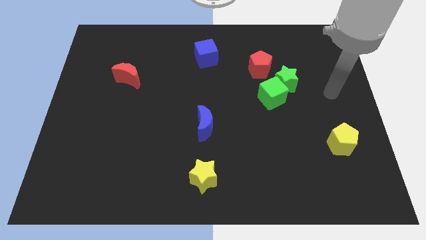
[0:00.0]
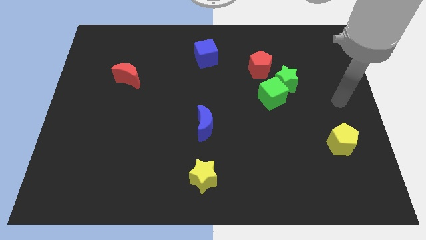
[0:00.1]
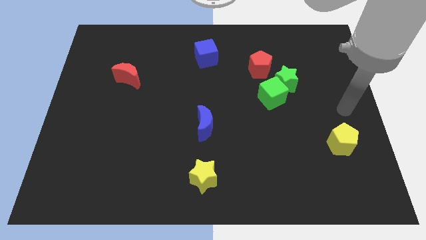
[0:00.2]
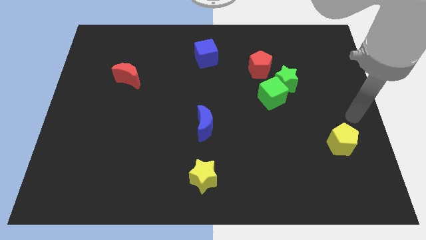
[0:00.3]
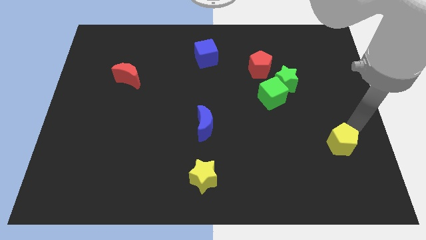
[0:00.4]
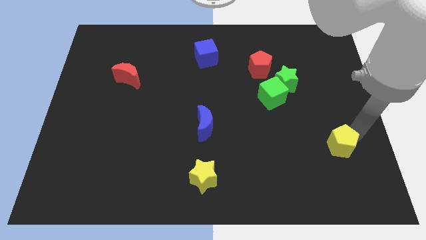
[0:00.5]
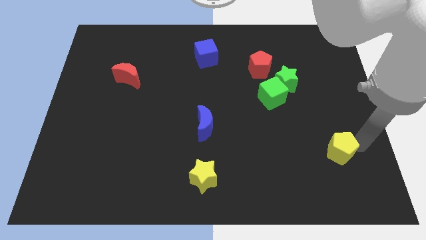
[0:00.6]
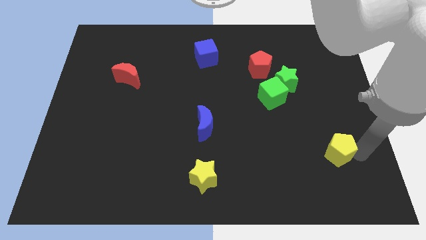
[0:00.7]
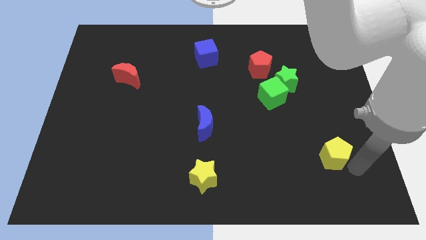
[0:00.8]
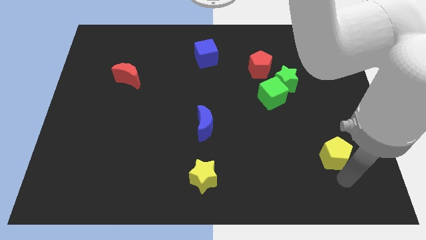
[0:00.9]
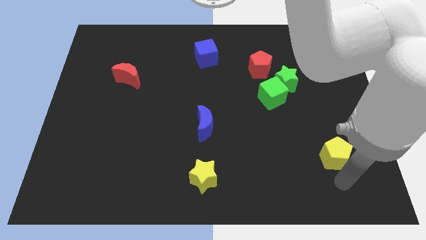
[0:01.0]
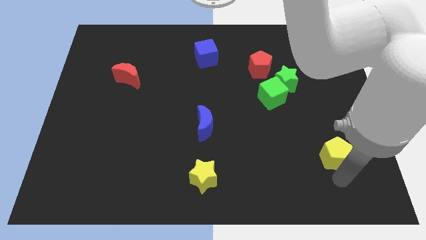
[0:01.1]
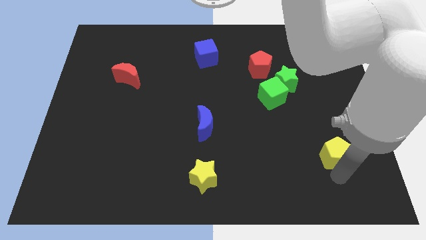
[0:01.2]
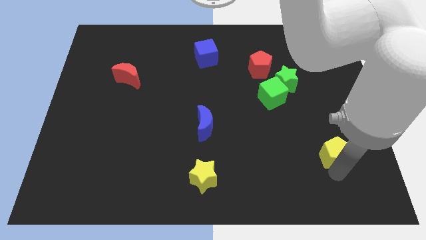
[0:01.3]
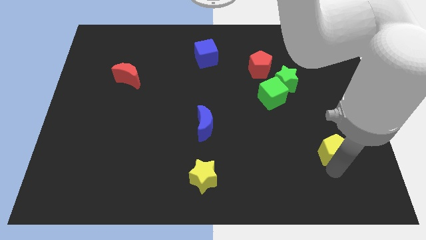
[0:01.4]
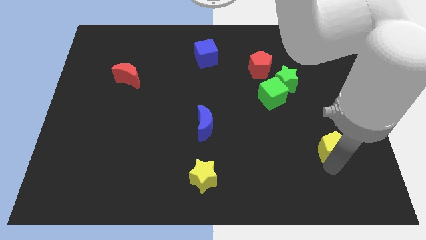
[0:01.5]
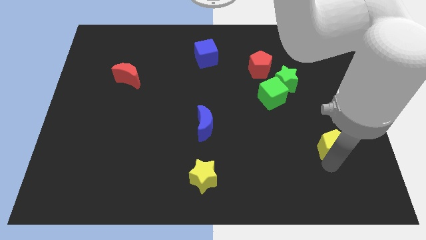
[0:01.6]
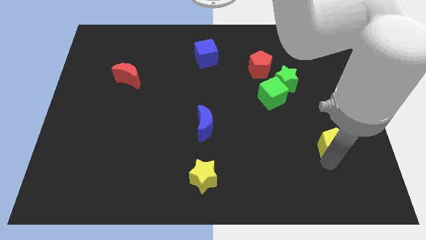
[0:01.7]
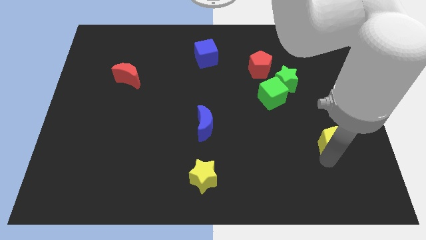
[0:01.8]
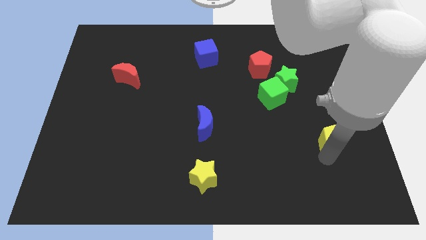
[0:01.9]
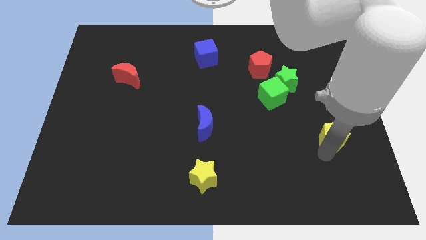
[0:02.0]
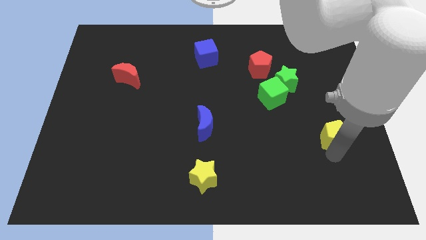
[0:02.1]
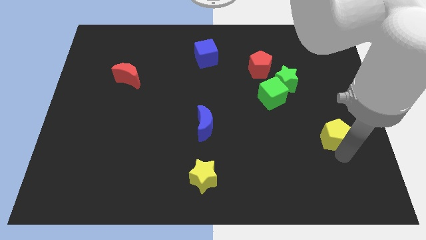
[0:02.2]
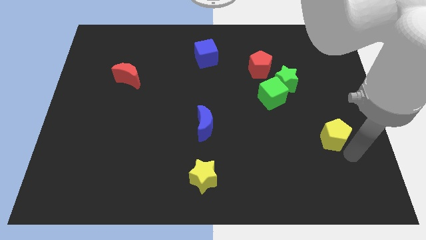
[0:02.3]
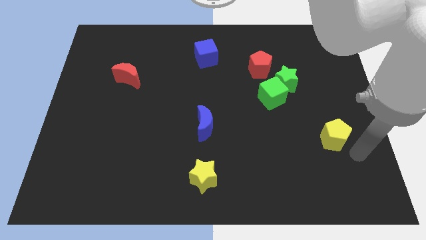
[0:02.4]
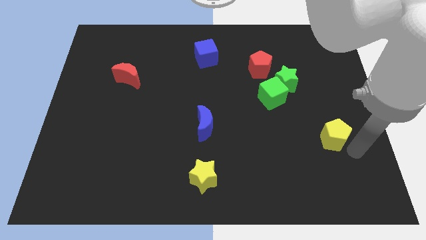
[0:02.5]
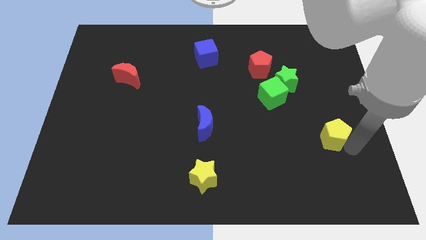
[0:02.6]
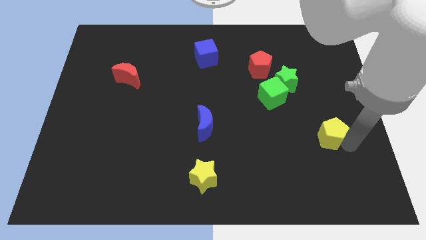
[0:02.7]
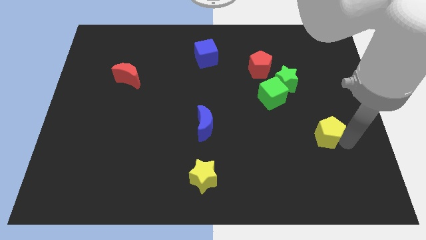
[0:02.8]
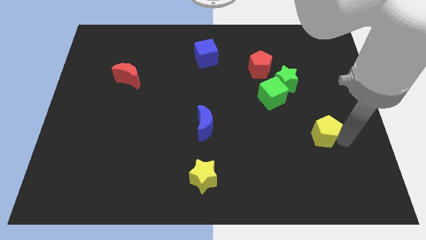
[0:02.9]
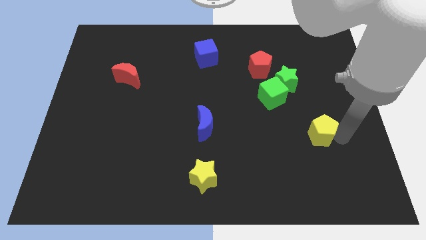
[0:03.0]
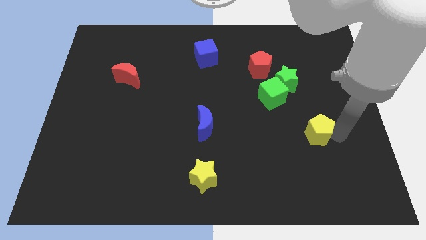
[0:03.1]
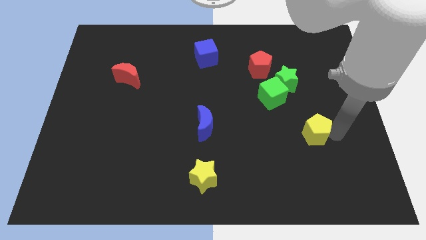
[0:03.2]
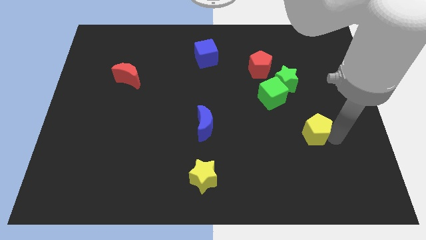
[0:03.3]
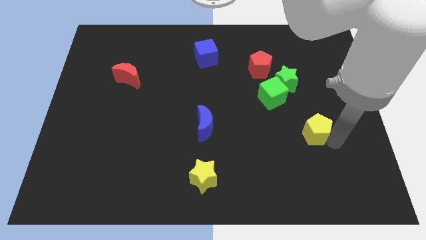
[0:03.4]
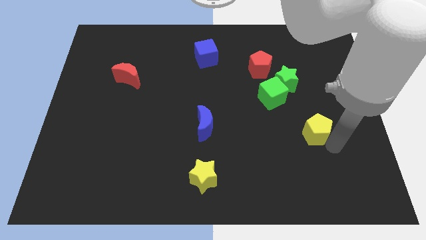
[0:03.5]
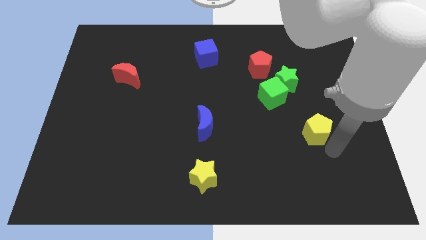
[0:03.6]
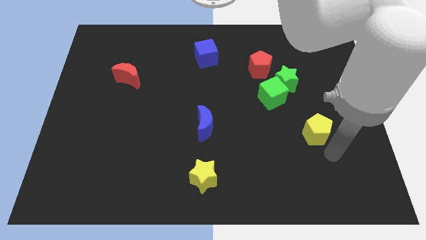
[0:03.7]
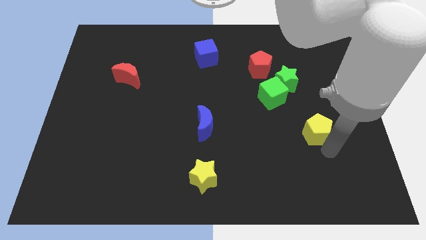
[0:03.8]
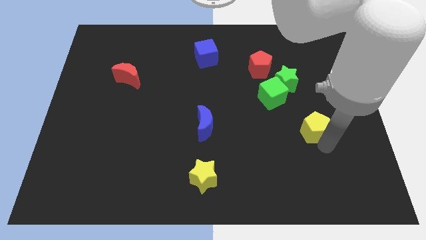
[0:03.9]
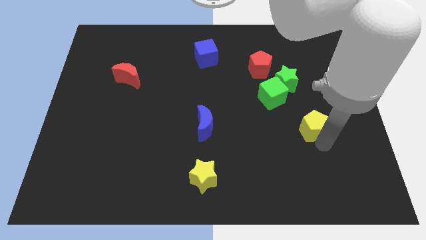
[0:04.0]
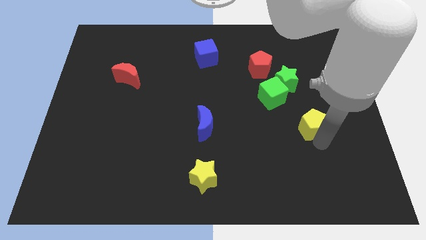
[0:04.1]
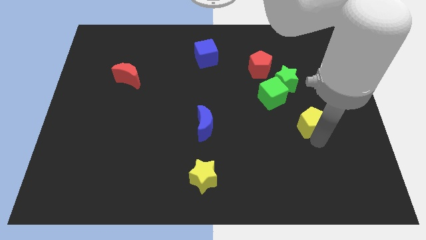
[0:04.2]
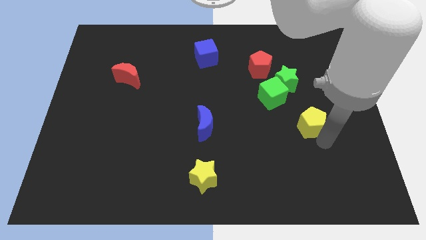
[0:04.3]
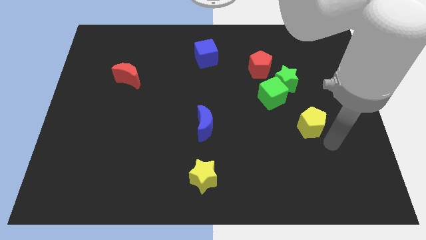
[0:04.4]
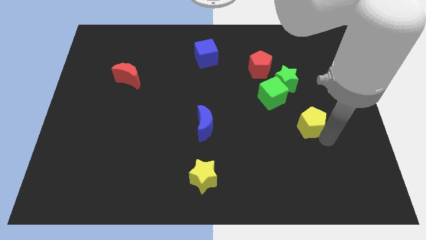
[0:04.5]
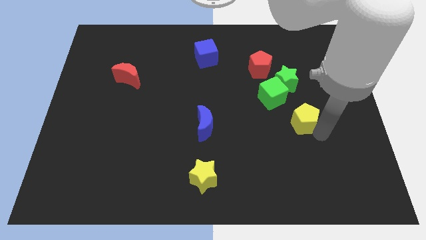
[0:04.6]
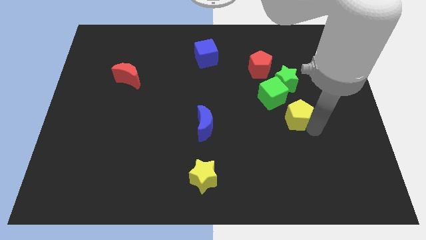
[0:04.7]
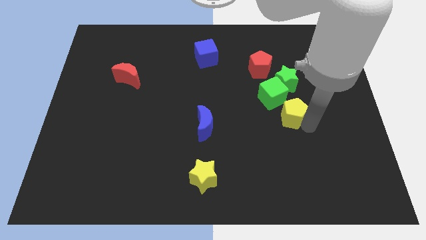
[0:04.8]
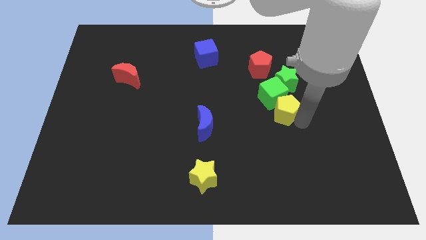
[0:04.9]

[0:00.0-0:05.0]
move the yellow pentagon next to the green cube

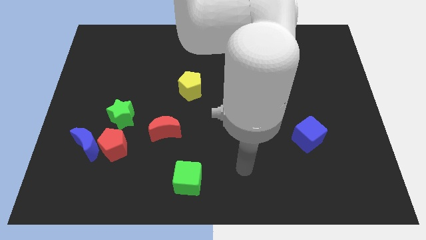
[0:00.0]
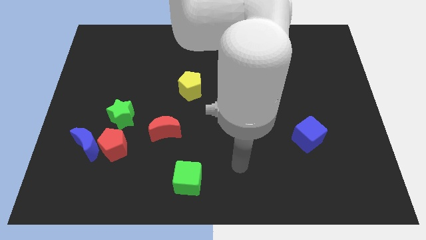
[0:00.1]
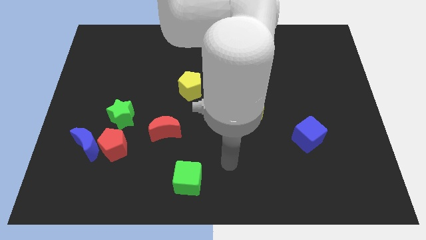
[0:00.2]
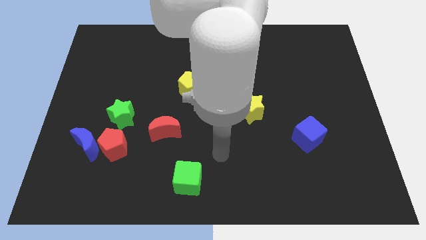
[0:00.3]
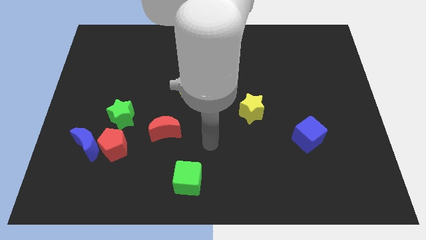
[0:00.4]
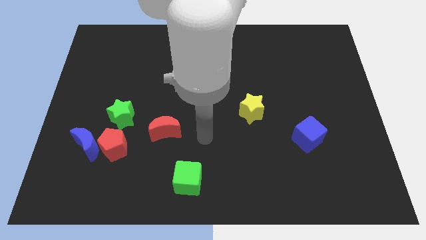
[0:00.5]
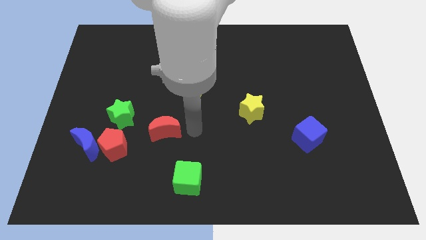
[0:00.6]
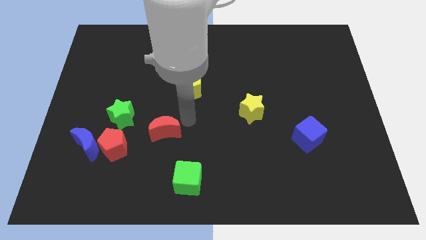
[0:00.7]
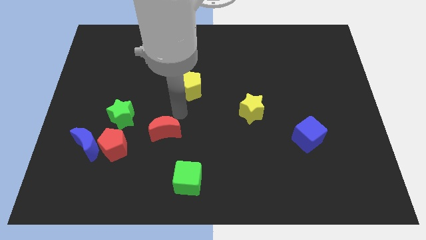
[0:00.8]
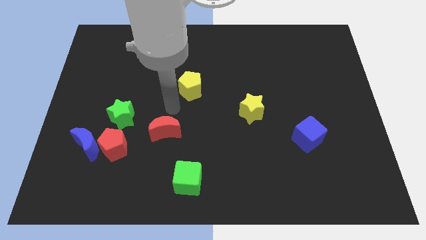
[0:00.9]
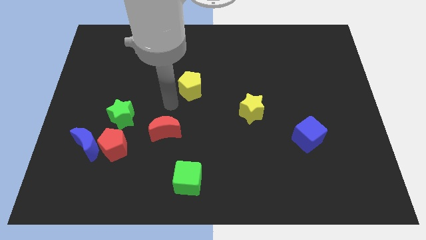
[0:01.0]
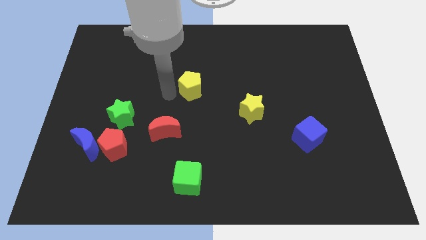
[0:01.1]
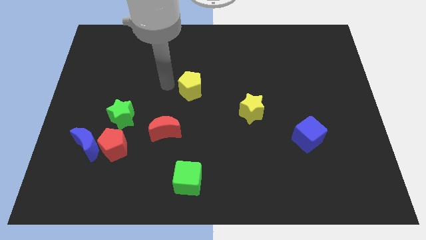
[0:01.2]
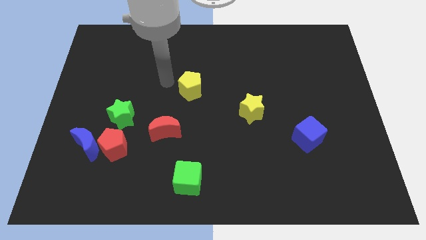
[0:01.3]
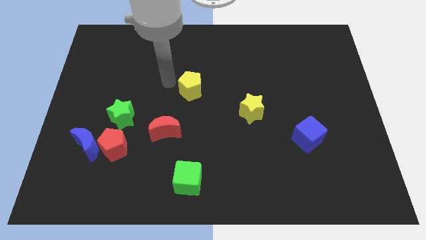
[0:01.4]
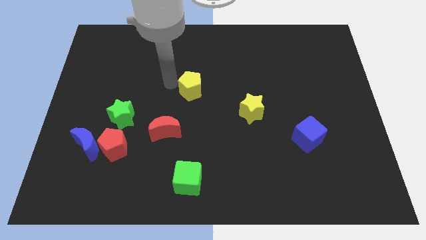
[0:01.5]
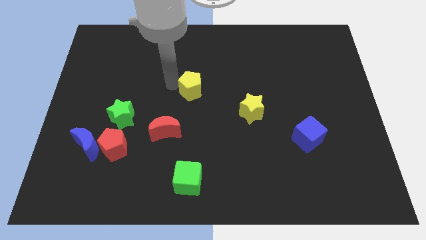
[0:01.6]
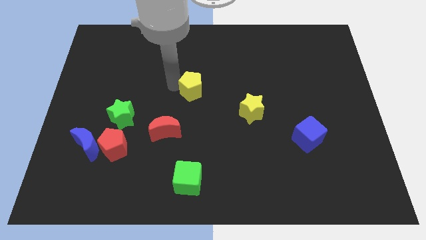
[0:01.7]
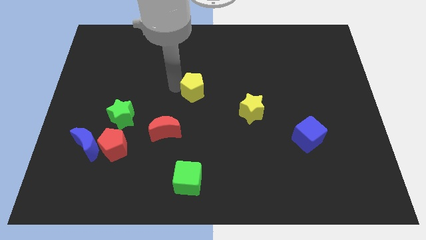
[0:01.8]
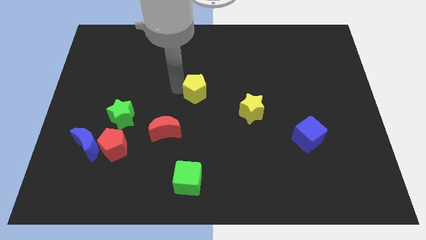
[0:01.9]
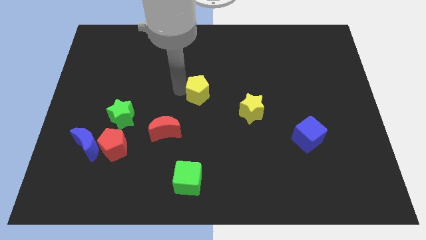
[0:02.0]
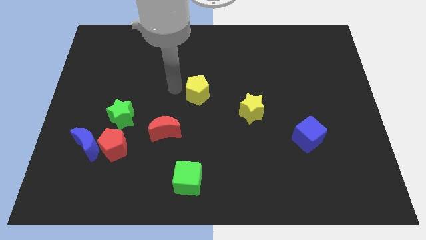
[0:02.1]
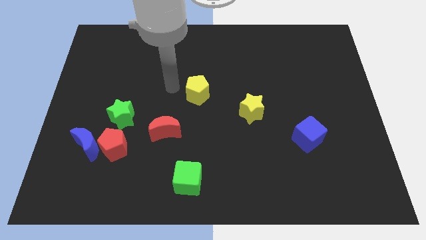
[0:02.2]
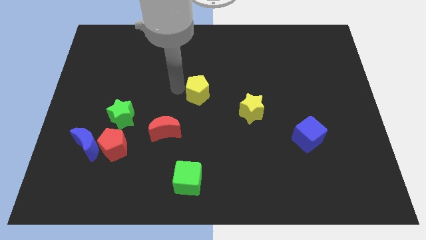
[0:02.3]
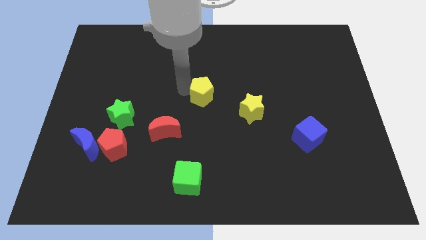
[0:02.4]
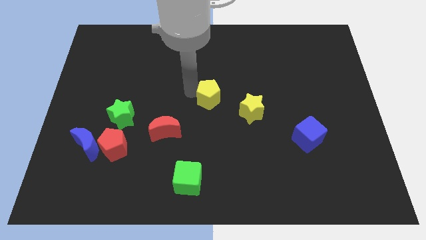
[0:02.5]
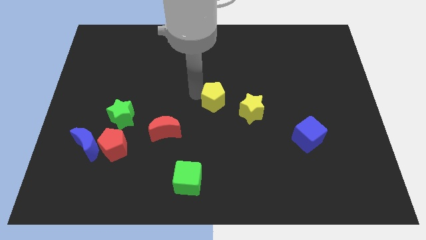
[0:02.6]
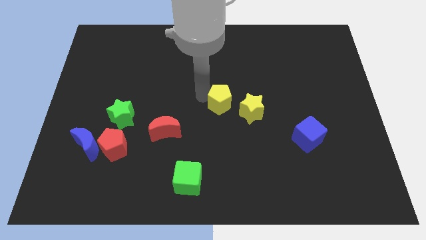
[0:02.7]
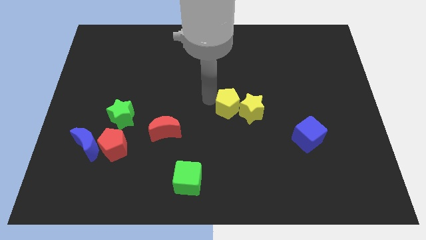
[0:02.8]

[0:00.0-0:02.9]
push the yellow pentagon next to the yellow star
